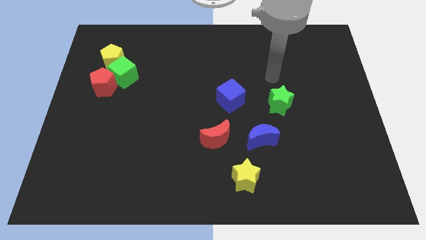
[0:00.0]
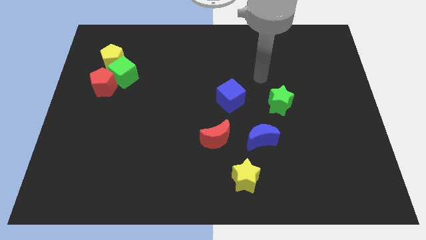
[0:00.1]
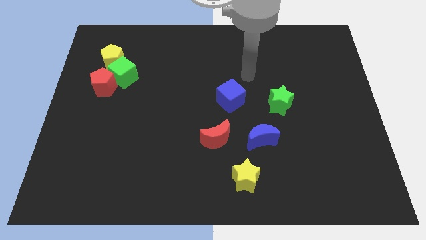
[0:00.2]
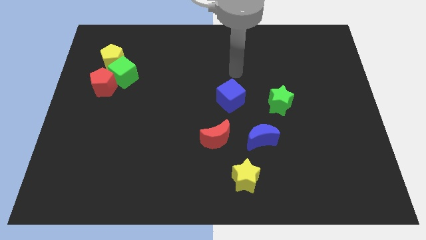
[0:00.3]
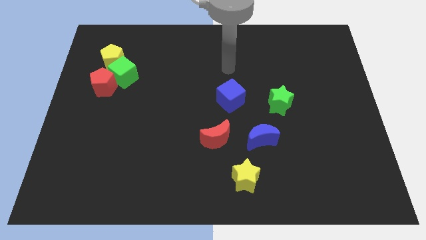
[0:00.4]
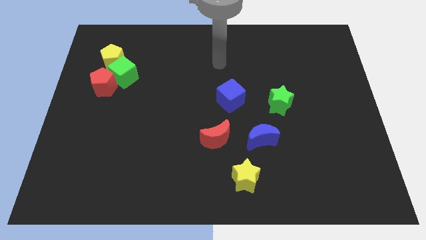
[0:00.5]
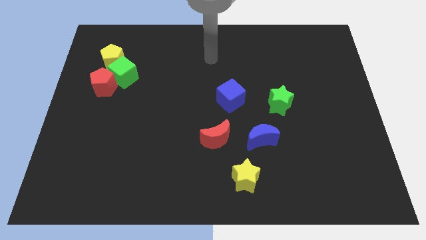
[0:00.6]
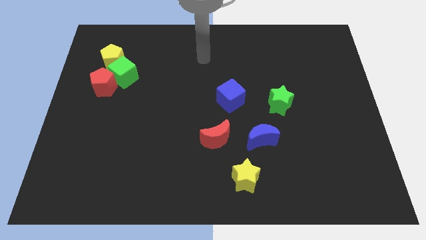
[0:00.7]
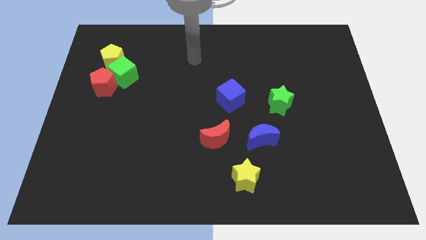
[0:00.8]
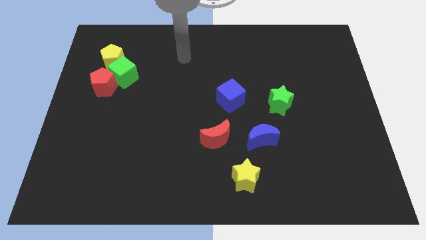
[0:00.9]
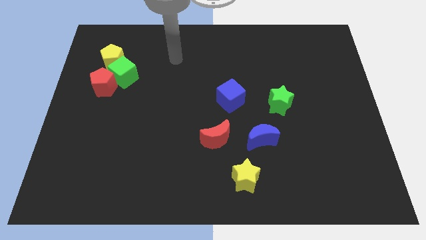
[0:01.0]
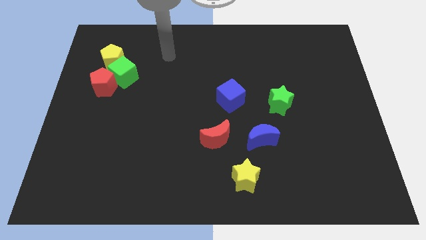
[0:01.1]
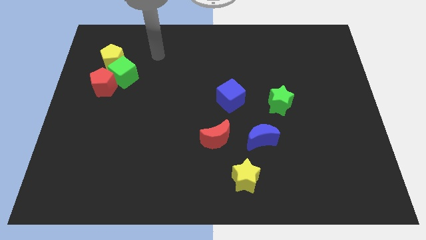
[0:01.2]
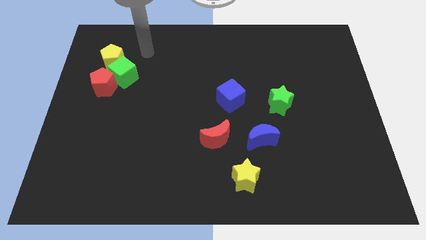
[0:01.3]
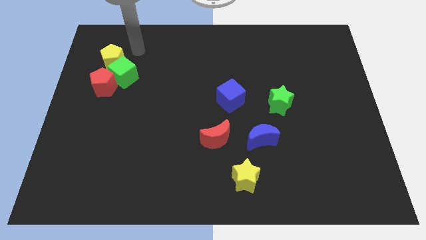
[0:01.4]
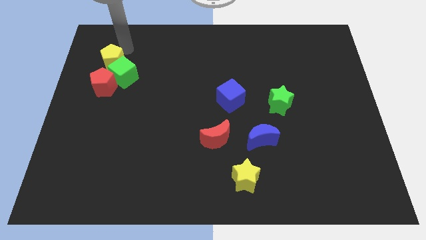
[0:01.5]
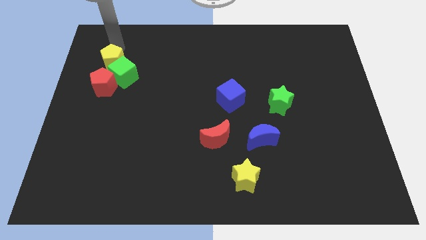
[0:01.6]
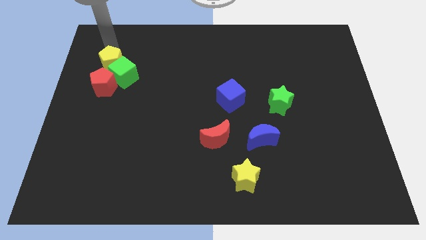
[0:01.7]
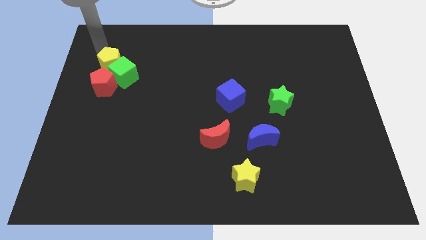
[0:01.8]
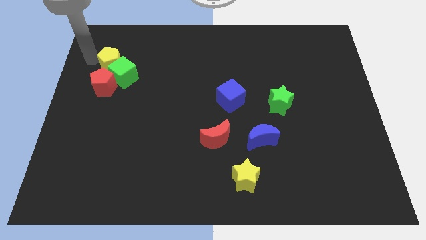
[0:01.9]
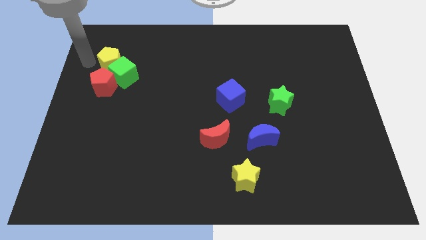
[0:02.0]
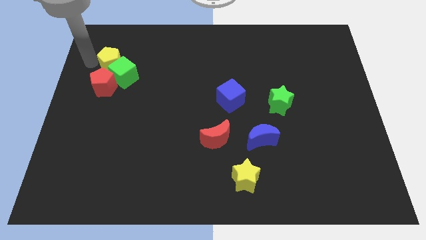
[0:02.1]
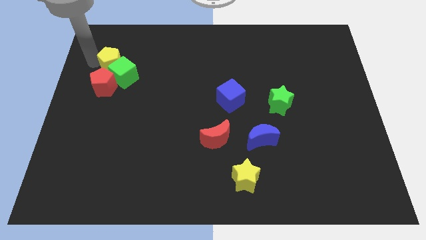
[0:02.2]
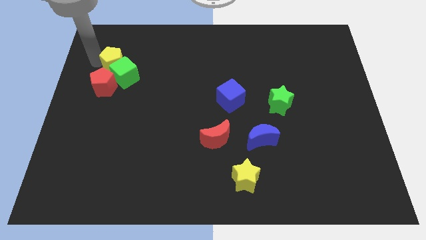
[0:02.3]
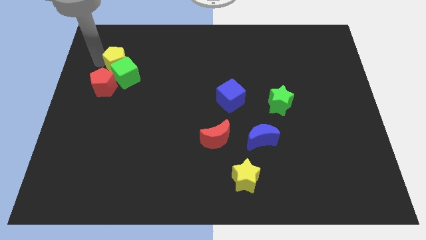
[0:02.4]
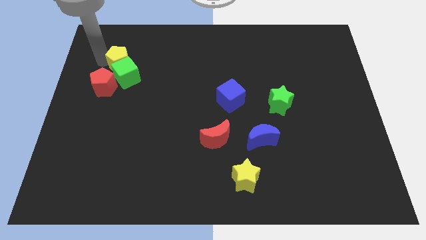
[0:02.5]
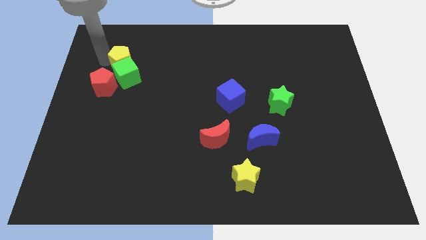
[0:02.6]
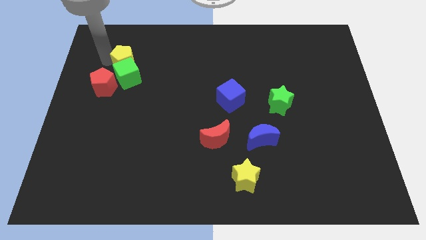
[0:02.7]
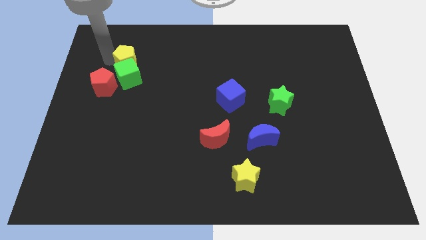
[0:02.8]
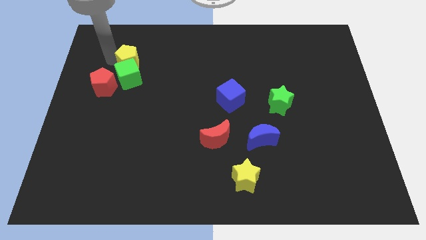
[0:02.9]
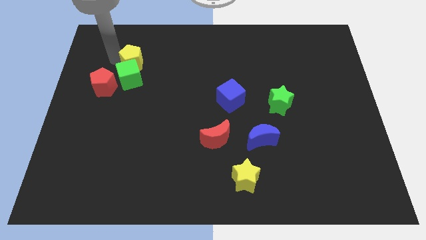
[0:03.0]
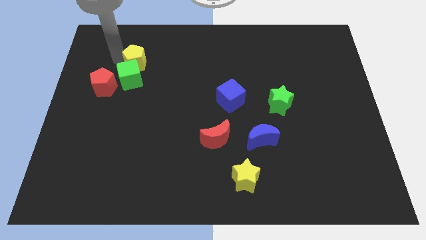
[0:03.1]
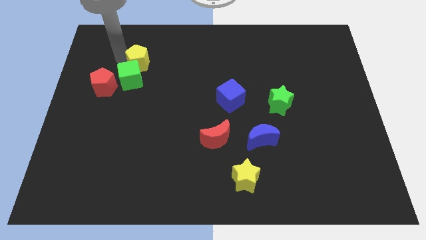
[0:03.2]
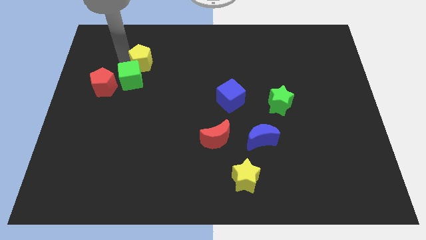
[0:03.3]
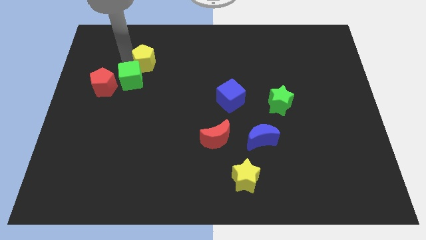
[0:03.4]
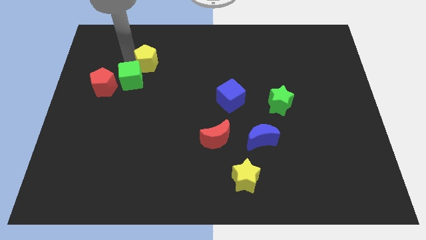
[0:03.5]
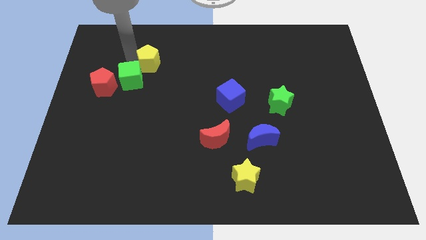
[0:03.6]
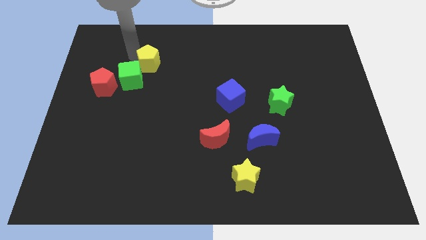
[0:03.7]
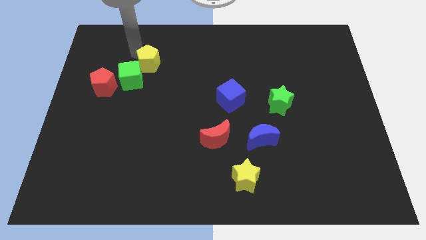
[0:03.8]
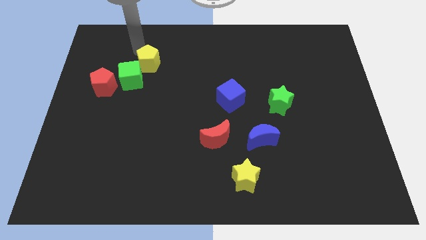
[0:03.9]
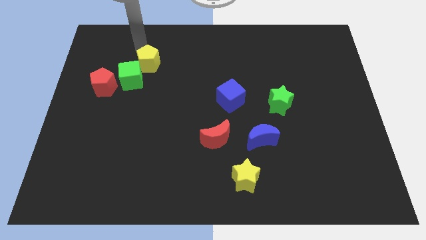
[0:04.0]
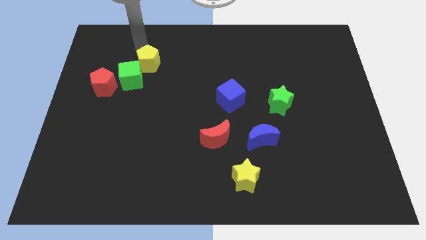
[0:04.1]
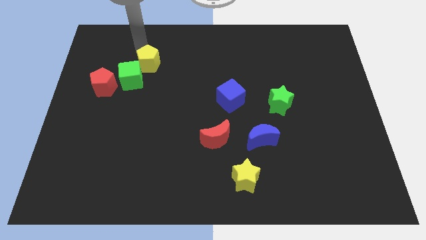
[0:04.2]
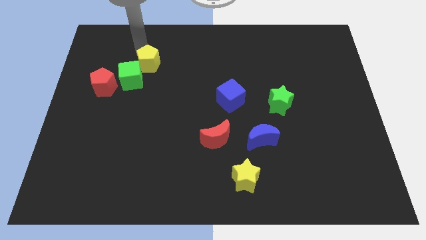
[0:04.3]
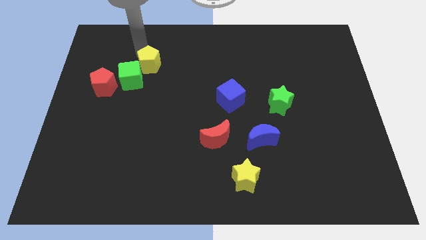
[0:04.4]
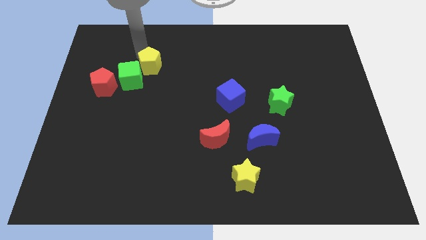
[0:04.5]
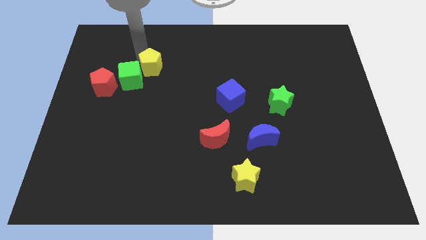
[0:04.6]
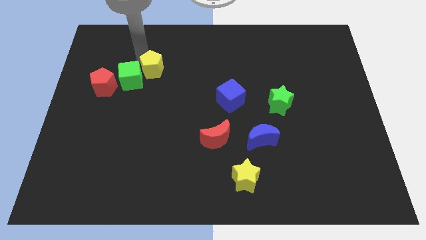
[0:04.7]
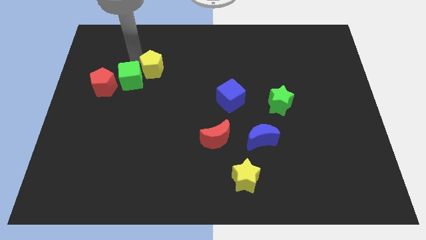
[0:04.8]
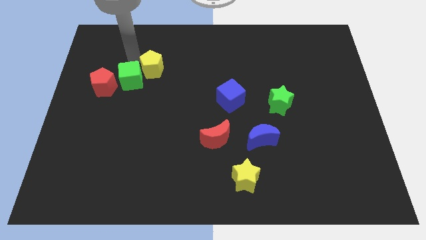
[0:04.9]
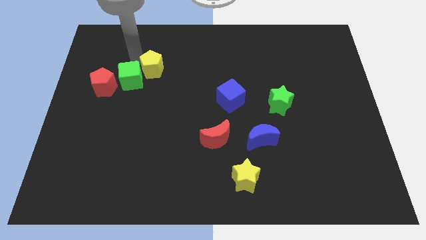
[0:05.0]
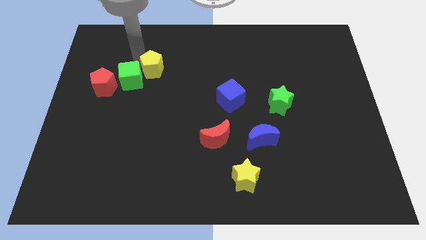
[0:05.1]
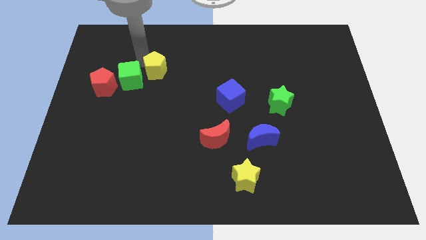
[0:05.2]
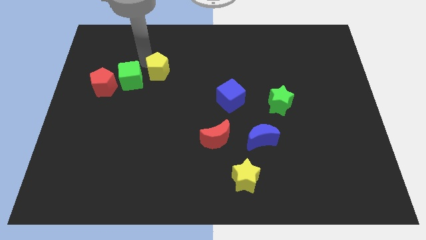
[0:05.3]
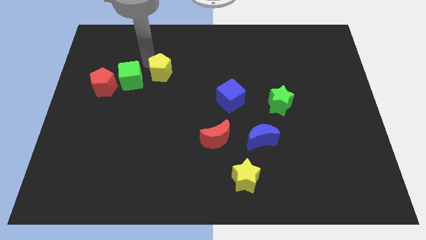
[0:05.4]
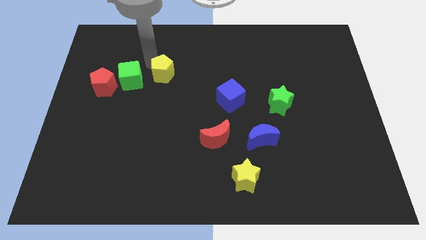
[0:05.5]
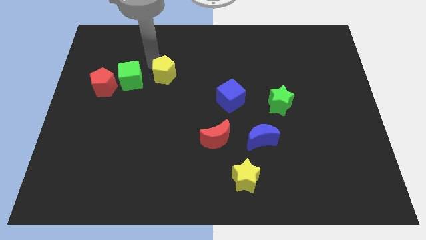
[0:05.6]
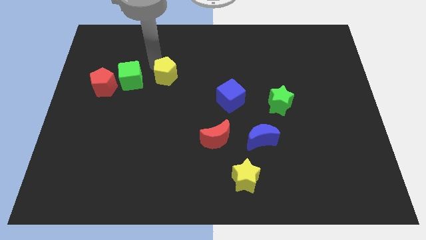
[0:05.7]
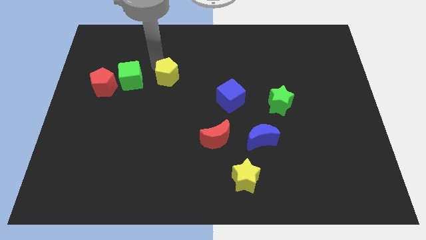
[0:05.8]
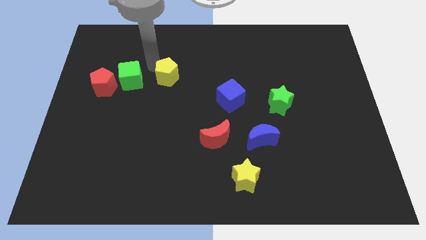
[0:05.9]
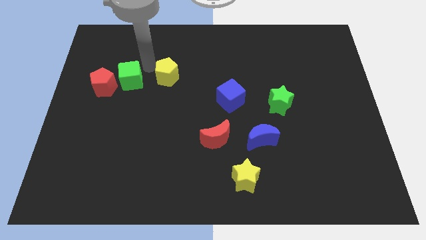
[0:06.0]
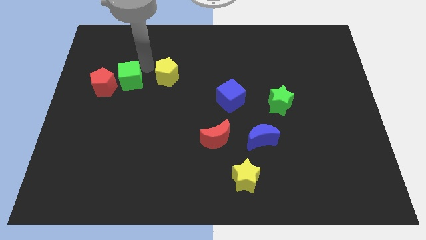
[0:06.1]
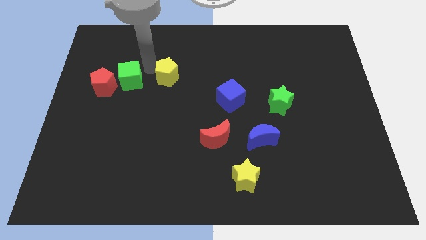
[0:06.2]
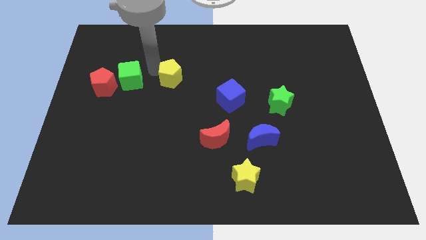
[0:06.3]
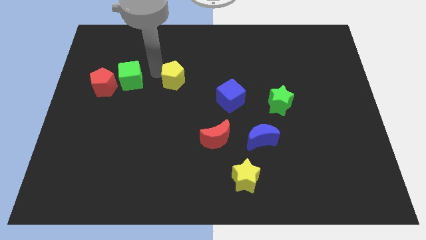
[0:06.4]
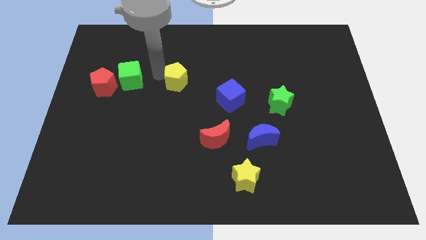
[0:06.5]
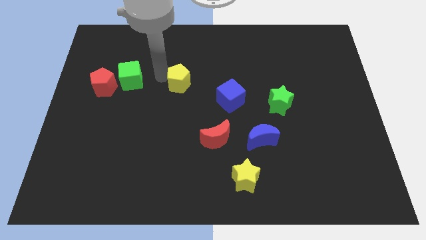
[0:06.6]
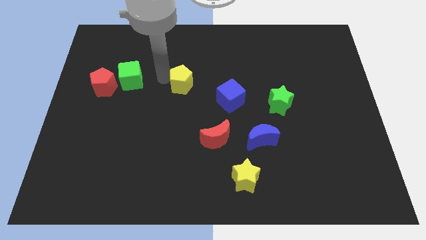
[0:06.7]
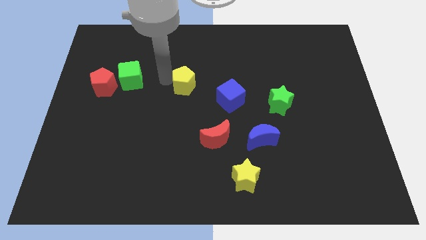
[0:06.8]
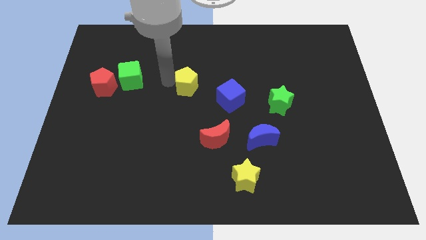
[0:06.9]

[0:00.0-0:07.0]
slide the yellow pentagon to the top left side of the blue cube
